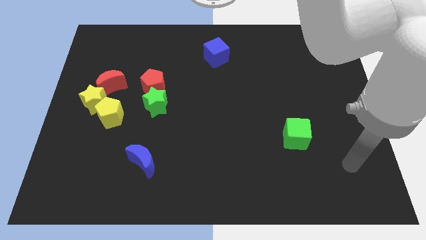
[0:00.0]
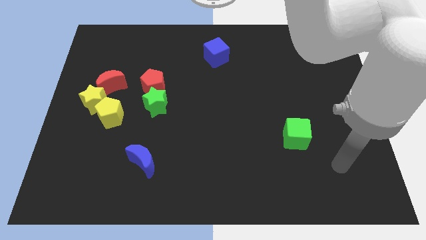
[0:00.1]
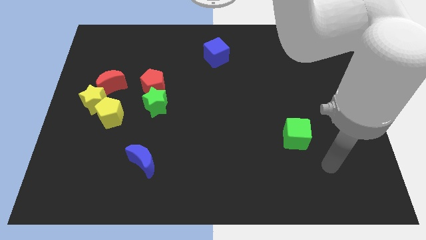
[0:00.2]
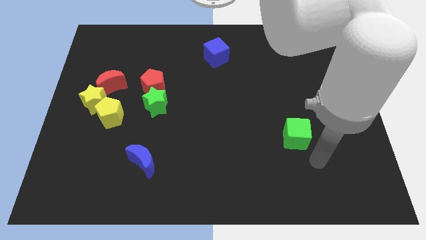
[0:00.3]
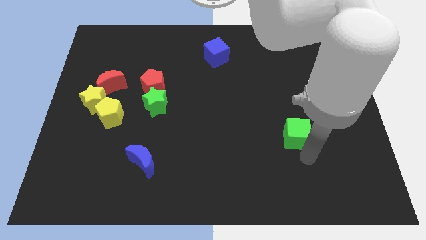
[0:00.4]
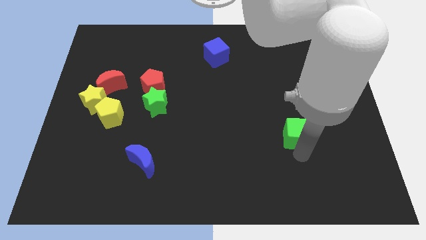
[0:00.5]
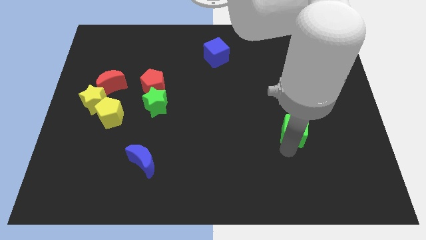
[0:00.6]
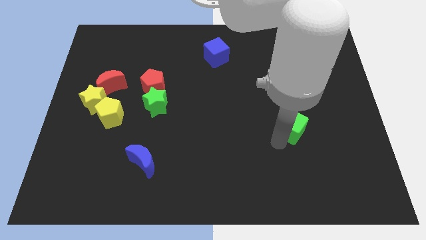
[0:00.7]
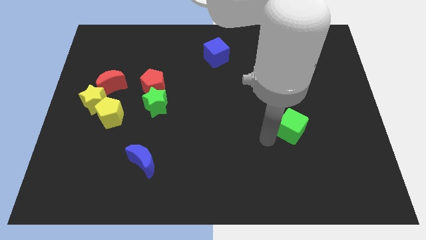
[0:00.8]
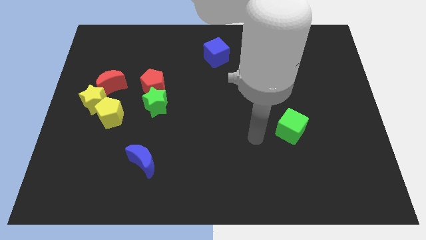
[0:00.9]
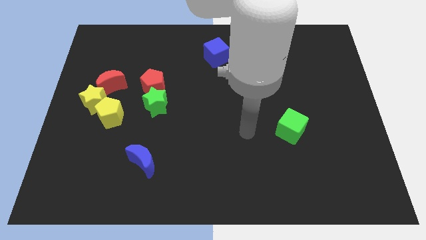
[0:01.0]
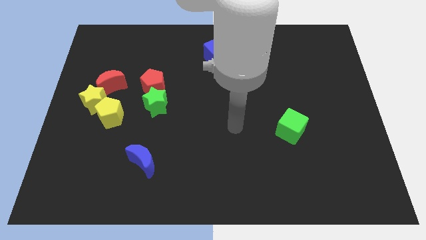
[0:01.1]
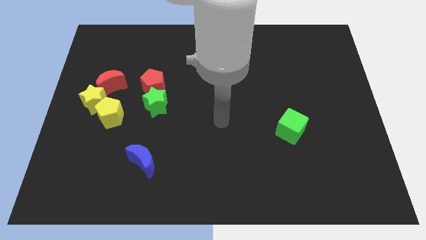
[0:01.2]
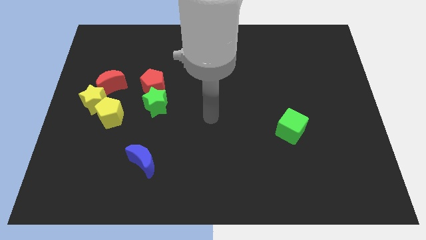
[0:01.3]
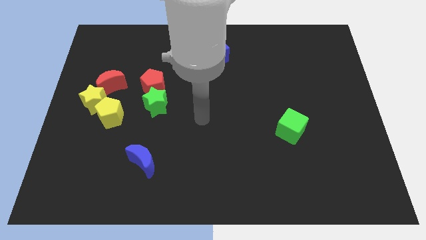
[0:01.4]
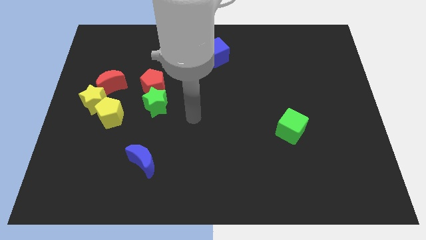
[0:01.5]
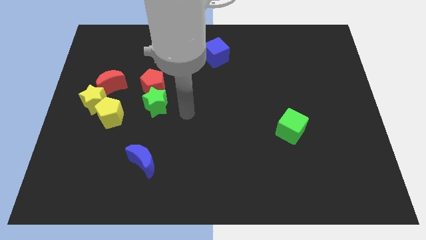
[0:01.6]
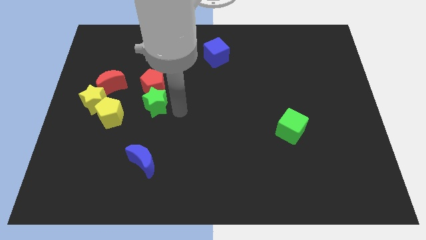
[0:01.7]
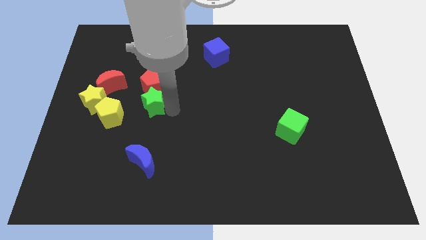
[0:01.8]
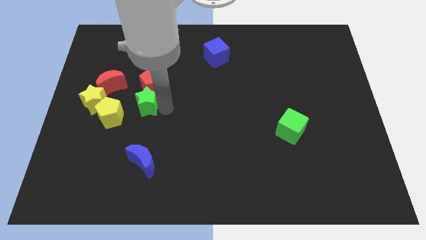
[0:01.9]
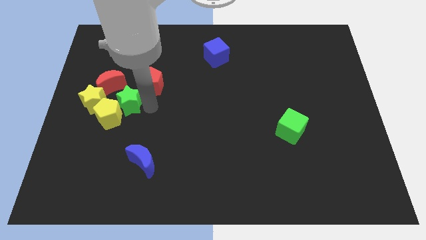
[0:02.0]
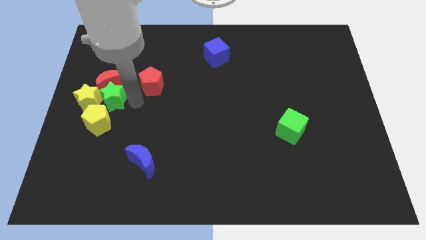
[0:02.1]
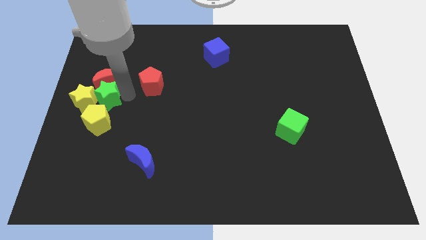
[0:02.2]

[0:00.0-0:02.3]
pull the red pentagon apart from the green star

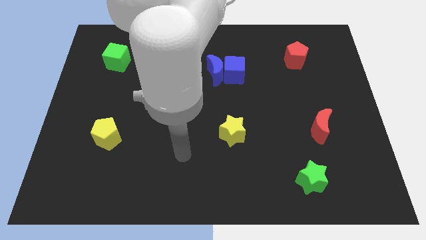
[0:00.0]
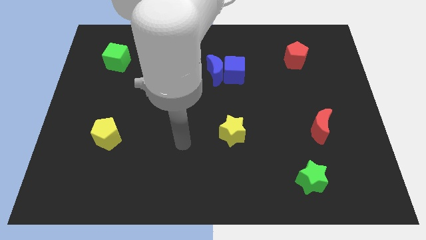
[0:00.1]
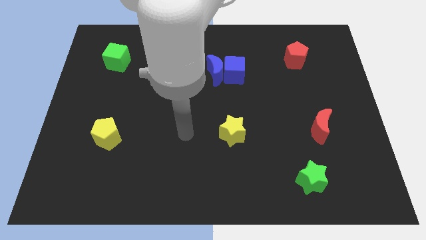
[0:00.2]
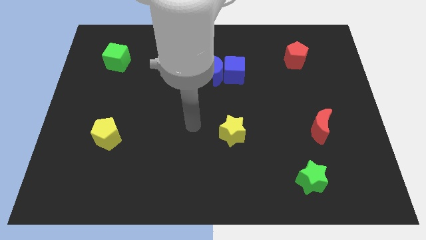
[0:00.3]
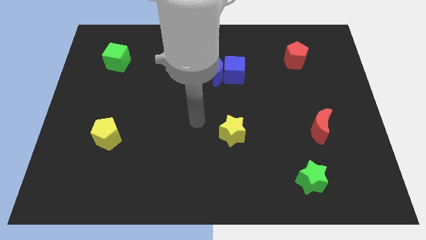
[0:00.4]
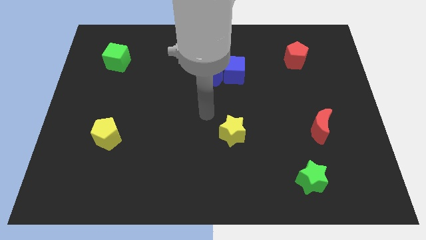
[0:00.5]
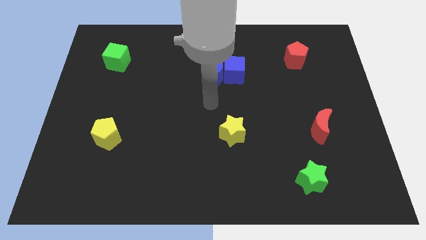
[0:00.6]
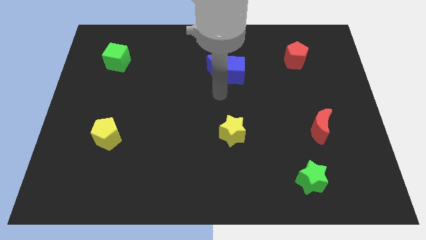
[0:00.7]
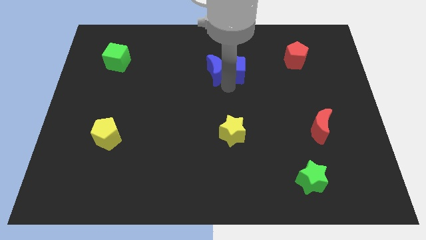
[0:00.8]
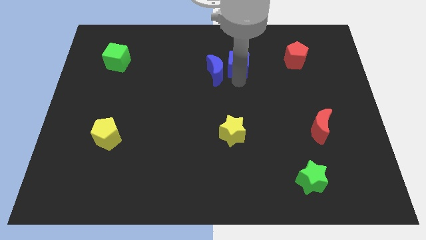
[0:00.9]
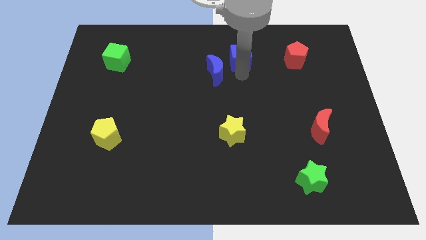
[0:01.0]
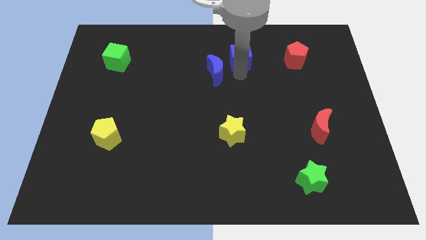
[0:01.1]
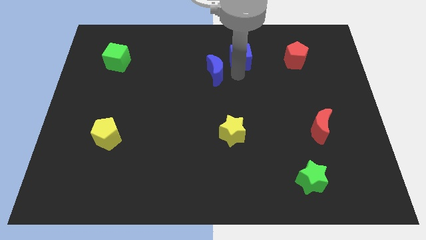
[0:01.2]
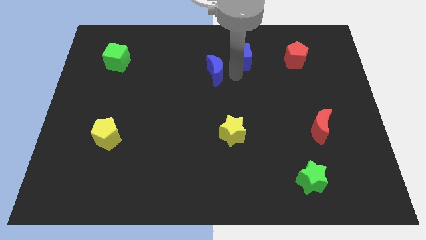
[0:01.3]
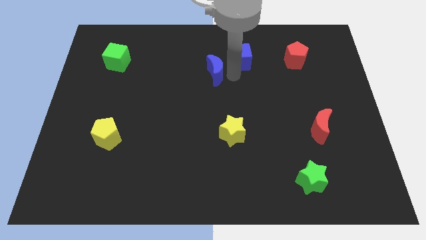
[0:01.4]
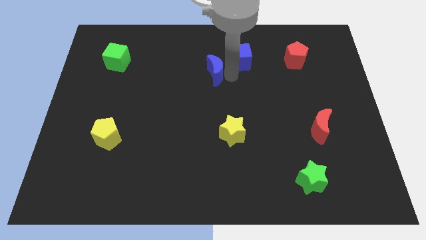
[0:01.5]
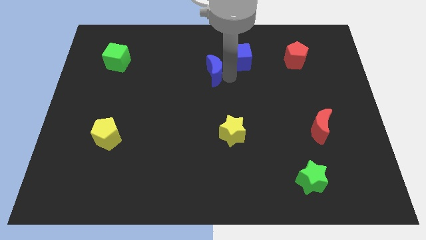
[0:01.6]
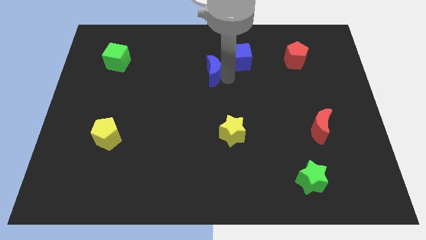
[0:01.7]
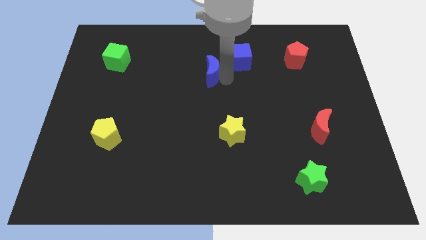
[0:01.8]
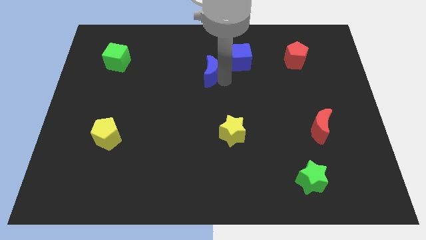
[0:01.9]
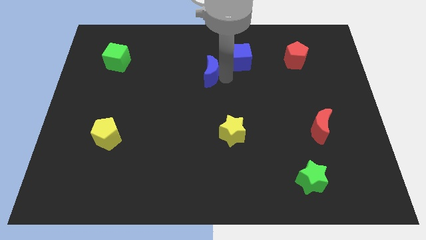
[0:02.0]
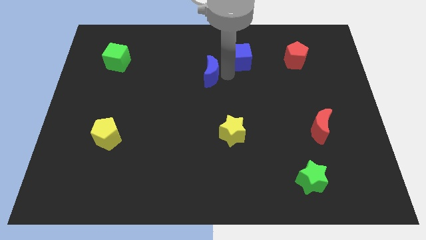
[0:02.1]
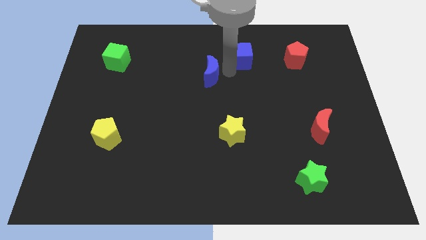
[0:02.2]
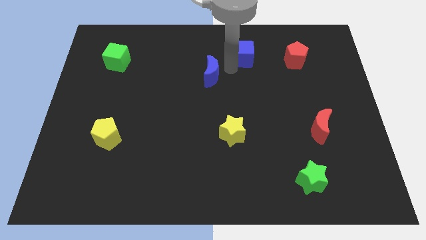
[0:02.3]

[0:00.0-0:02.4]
move the blue moon away from the blue cube

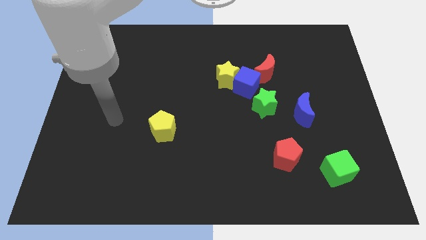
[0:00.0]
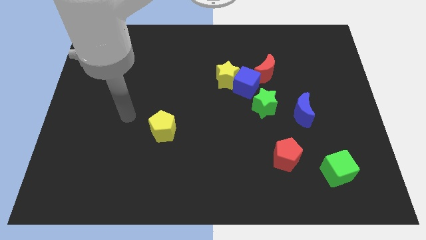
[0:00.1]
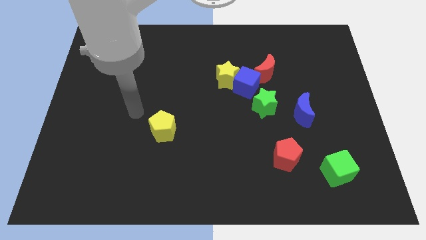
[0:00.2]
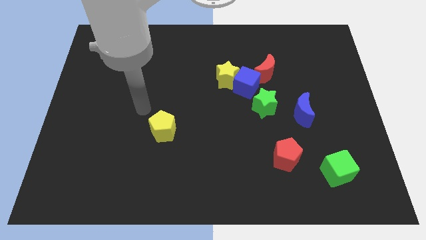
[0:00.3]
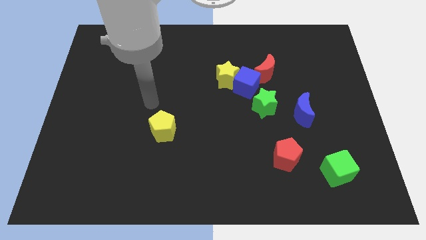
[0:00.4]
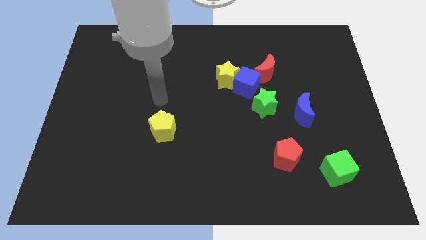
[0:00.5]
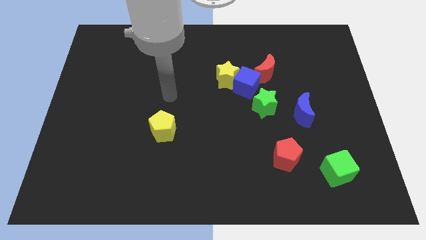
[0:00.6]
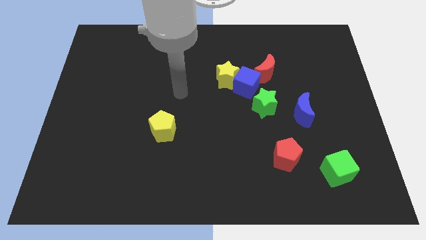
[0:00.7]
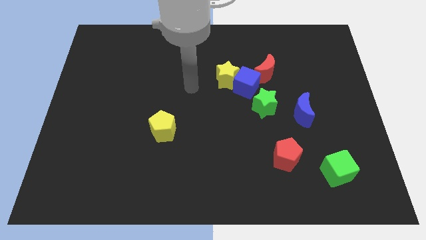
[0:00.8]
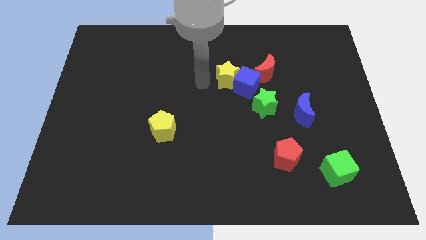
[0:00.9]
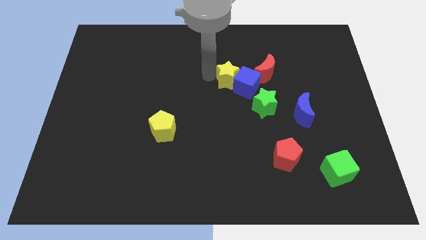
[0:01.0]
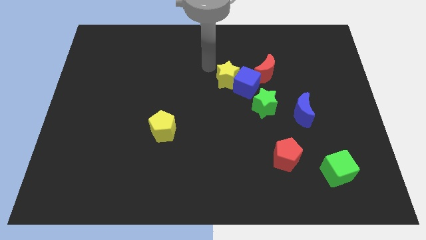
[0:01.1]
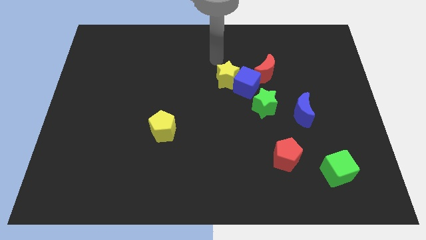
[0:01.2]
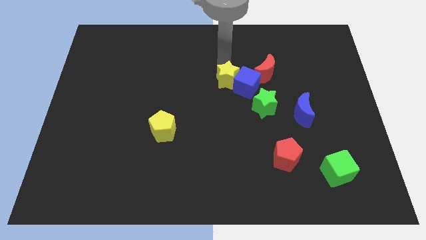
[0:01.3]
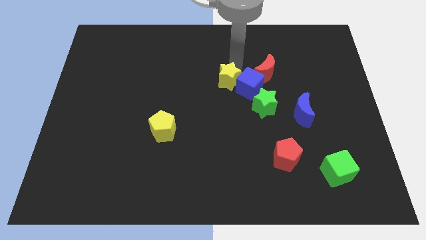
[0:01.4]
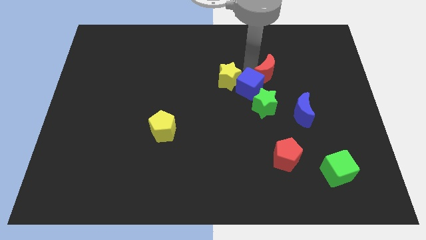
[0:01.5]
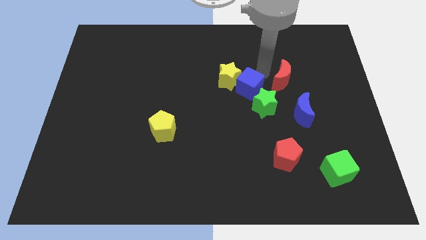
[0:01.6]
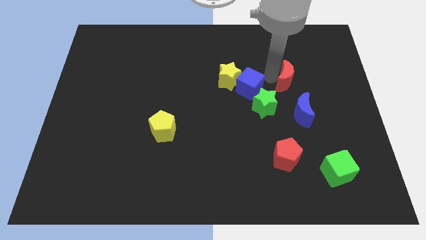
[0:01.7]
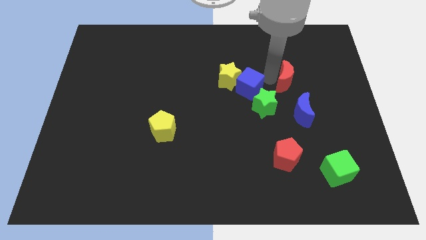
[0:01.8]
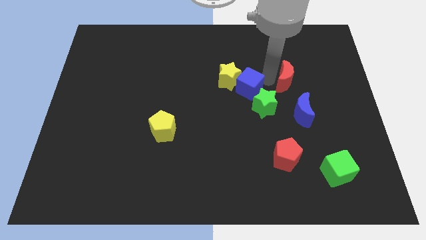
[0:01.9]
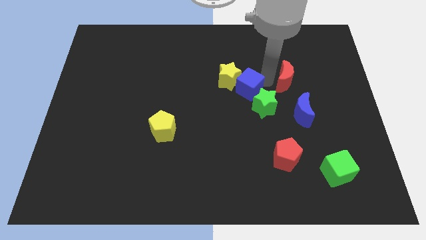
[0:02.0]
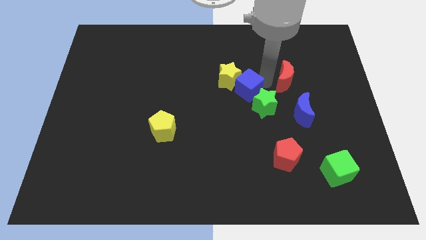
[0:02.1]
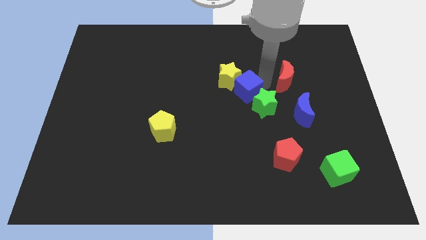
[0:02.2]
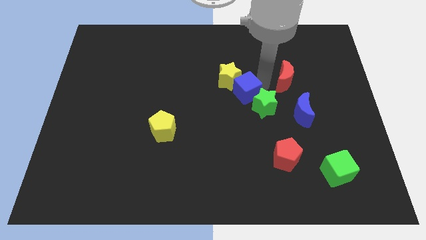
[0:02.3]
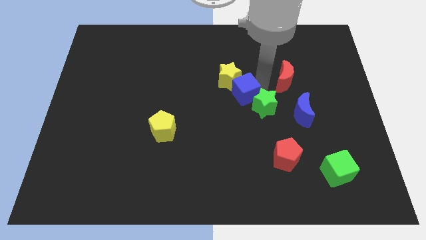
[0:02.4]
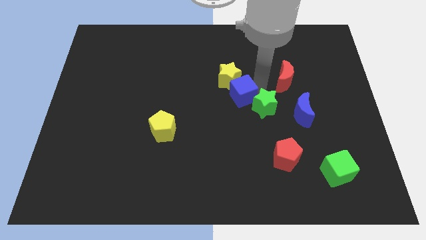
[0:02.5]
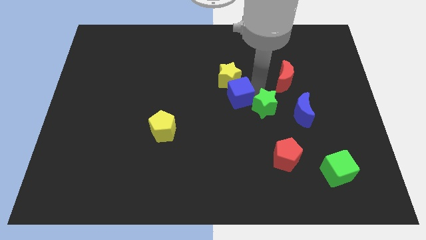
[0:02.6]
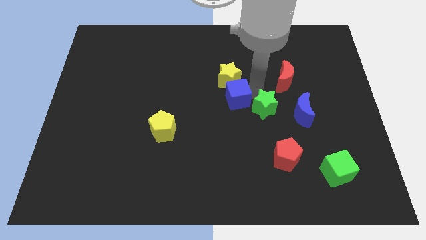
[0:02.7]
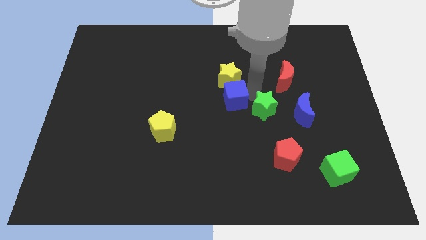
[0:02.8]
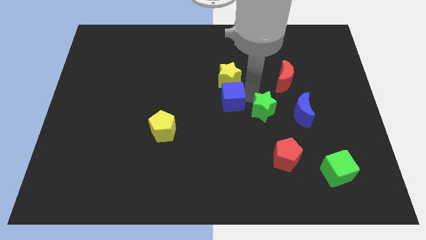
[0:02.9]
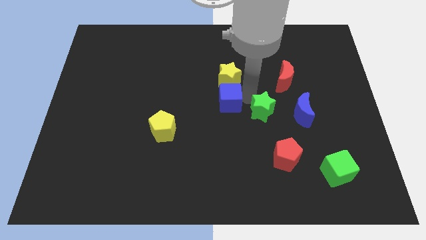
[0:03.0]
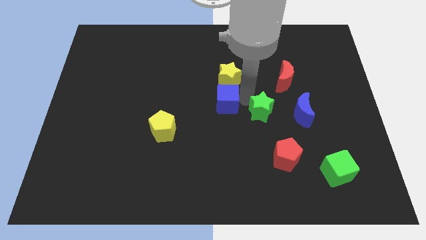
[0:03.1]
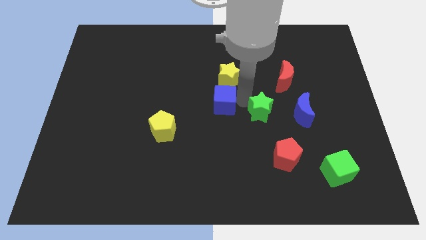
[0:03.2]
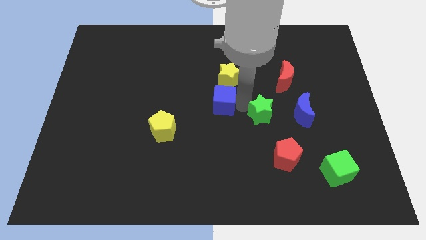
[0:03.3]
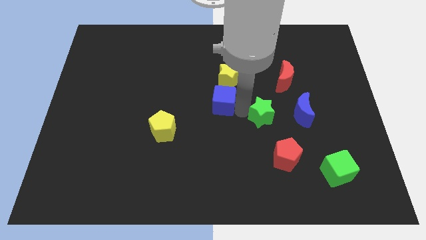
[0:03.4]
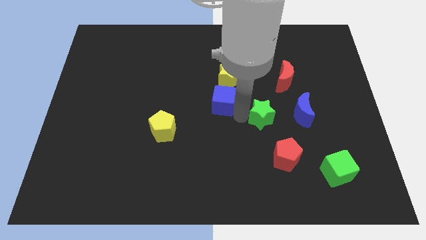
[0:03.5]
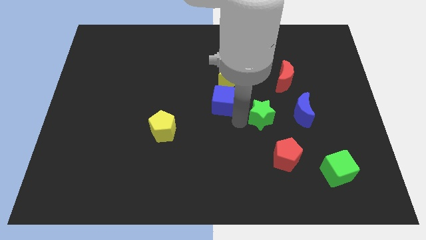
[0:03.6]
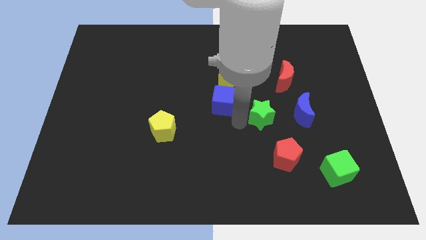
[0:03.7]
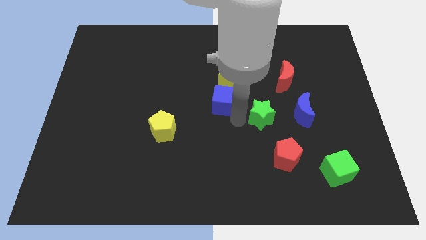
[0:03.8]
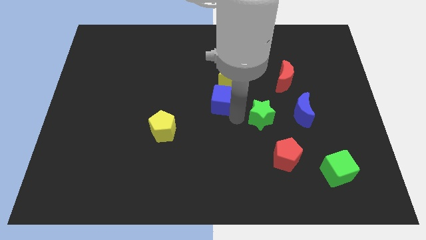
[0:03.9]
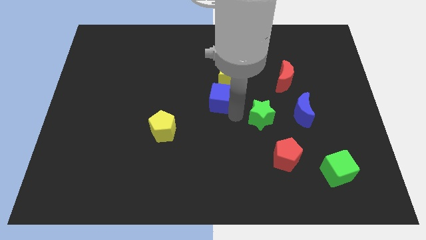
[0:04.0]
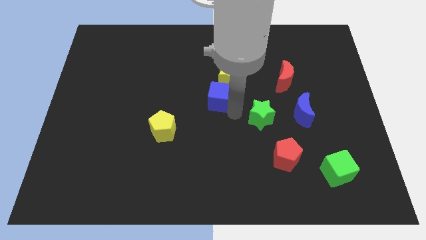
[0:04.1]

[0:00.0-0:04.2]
separate the blue cube from the group of blocks

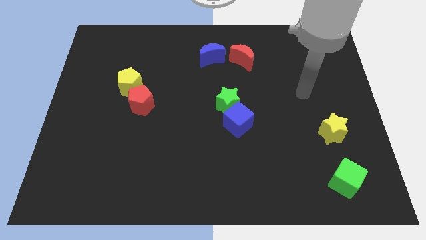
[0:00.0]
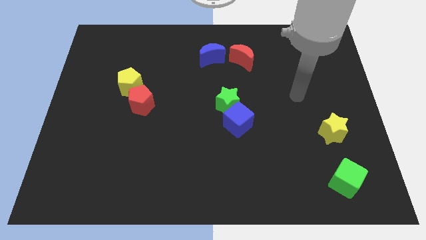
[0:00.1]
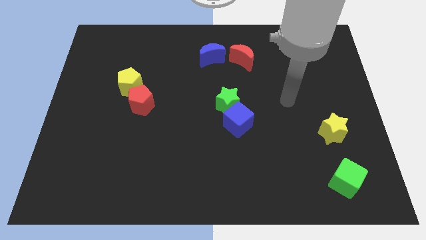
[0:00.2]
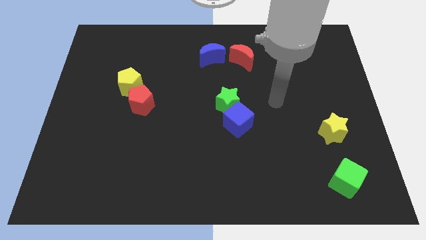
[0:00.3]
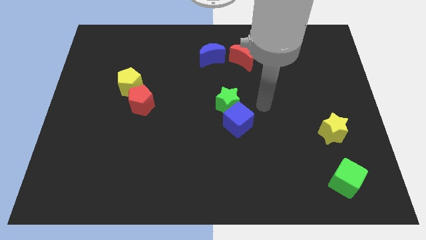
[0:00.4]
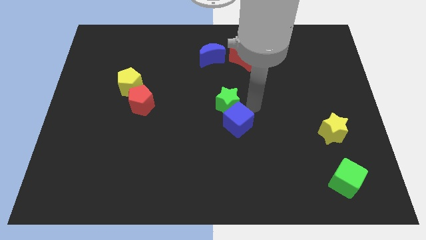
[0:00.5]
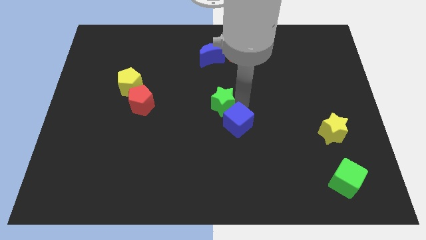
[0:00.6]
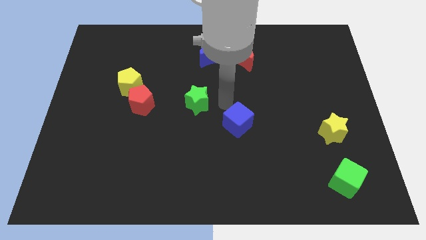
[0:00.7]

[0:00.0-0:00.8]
pull the blue cube apart from the green star
